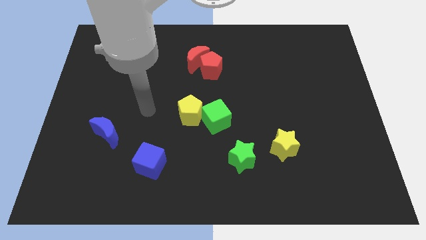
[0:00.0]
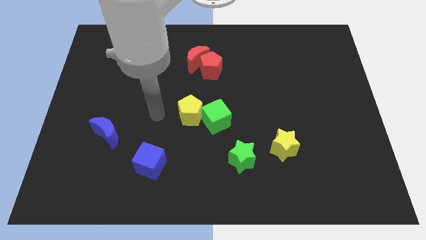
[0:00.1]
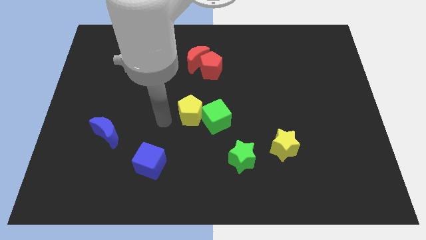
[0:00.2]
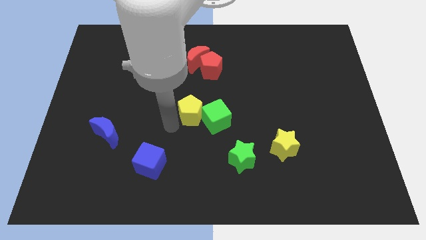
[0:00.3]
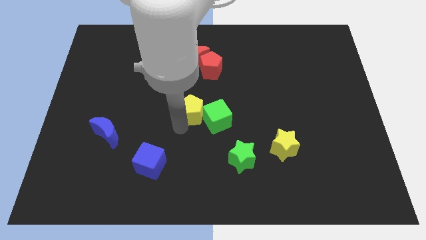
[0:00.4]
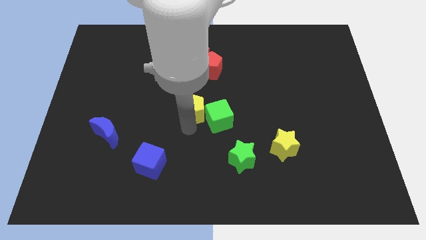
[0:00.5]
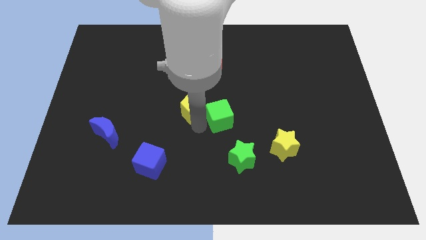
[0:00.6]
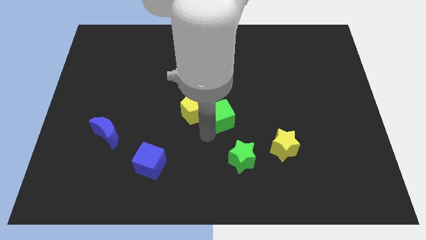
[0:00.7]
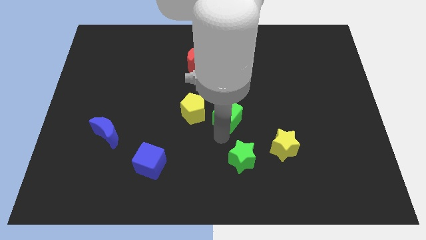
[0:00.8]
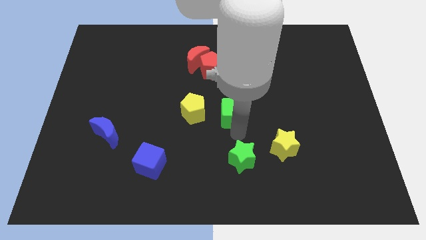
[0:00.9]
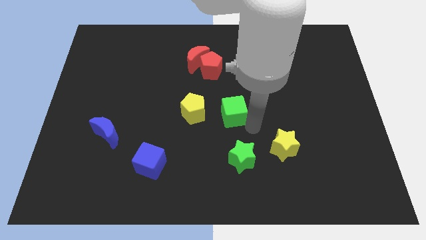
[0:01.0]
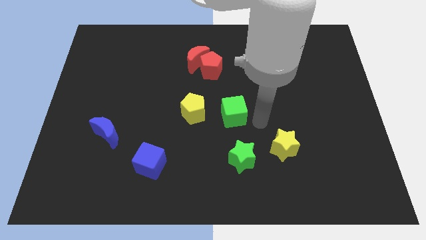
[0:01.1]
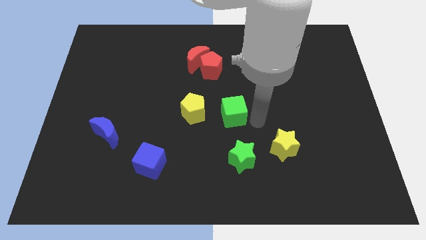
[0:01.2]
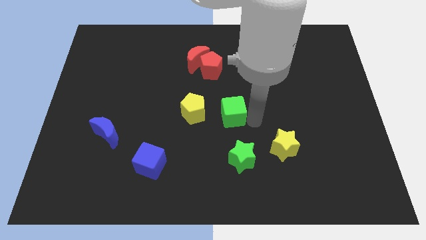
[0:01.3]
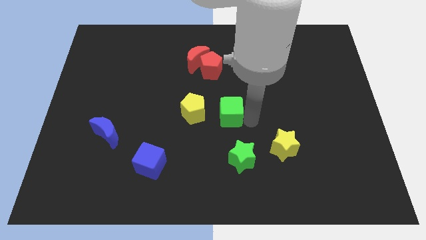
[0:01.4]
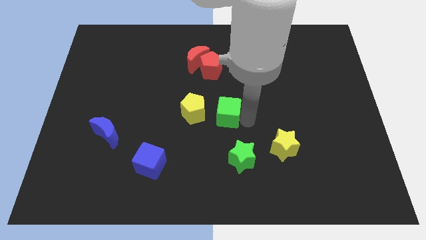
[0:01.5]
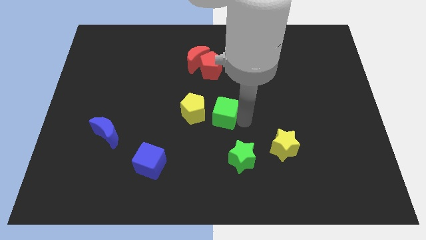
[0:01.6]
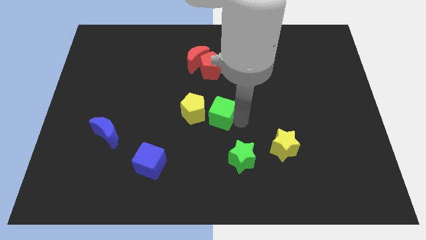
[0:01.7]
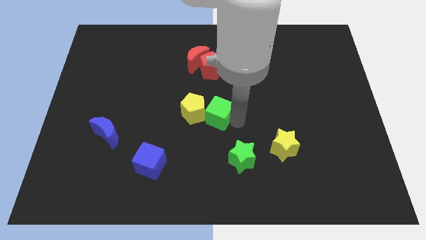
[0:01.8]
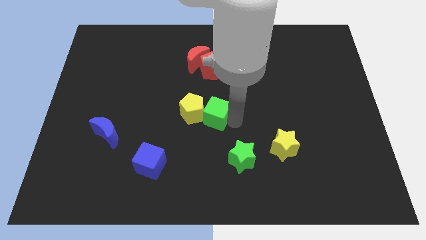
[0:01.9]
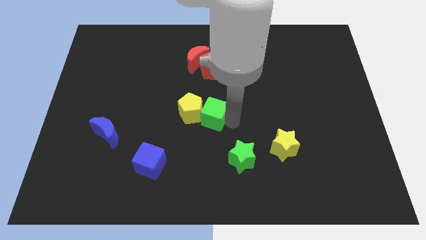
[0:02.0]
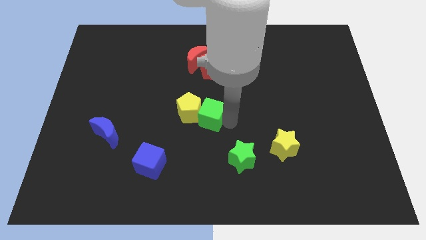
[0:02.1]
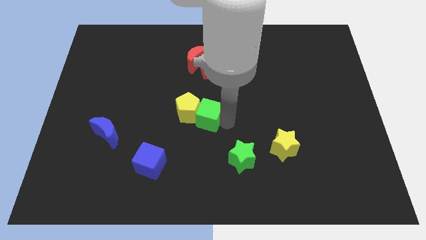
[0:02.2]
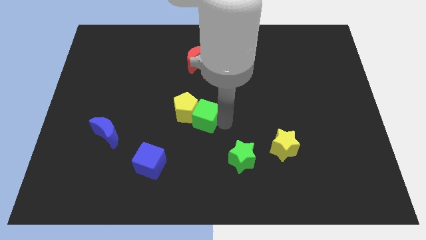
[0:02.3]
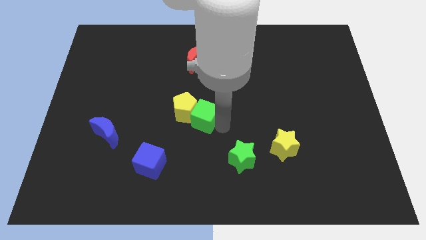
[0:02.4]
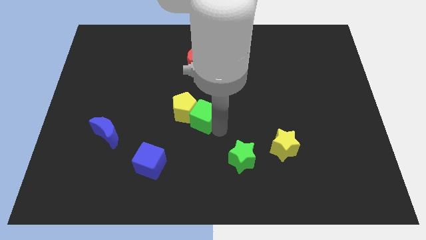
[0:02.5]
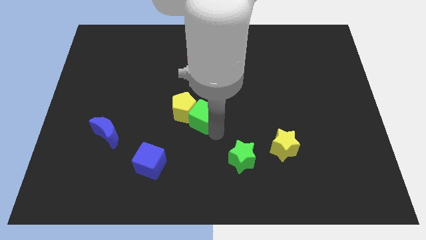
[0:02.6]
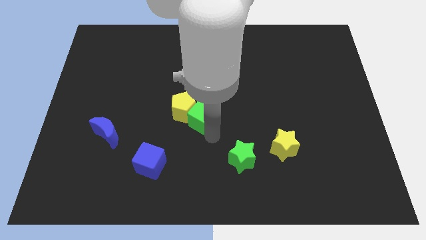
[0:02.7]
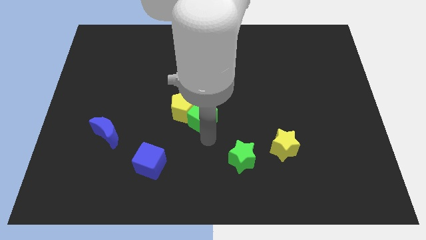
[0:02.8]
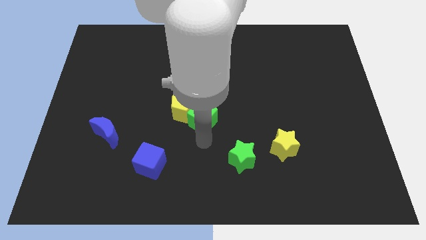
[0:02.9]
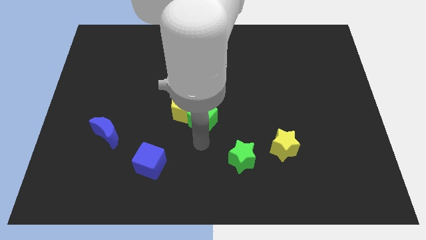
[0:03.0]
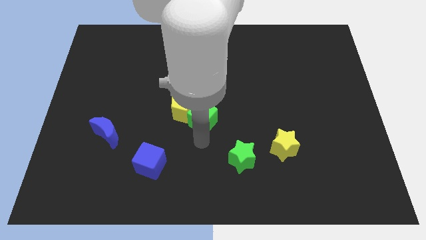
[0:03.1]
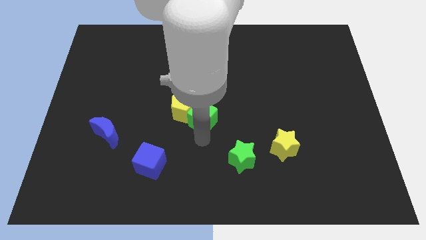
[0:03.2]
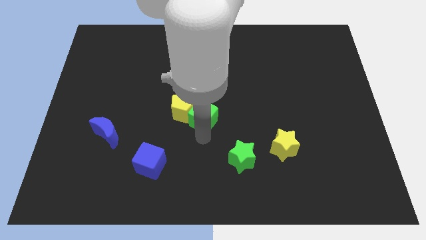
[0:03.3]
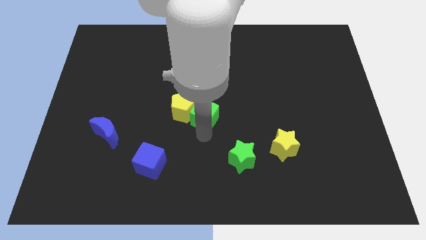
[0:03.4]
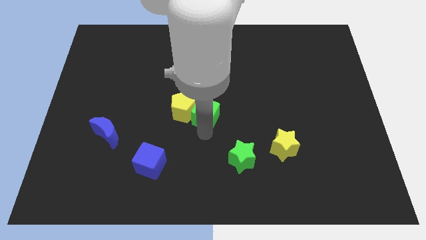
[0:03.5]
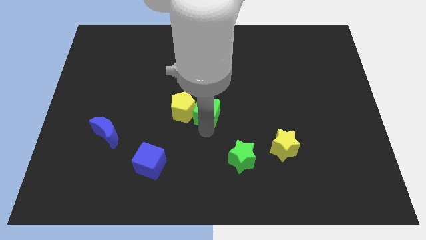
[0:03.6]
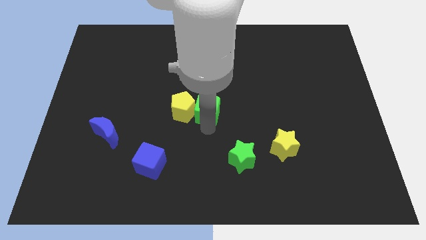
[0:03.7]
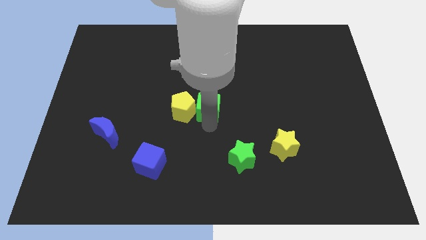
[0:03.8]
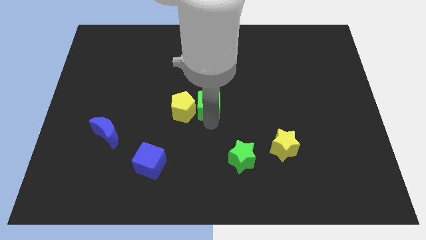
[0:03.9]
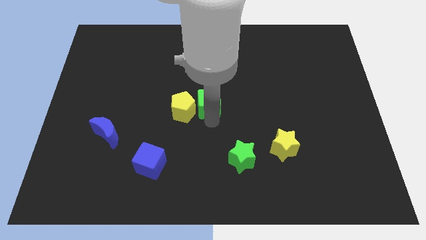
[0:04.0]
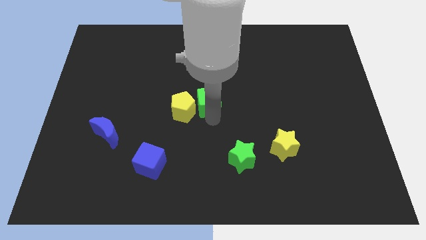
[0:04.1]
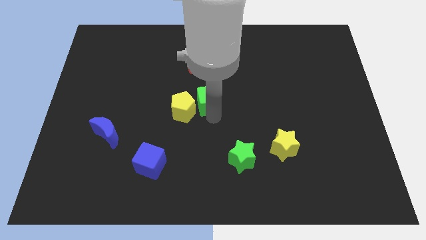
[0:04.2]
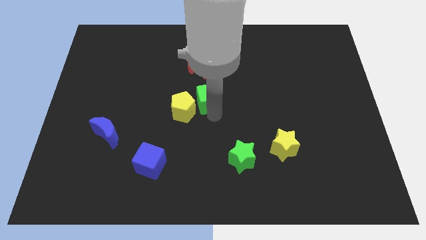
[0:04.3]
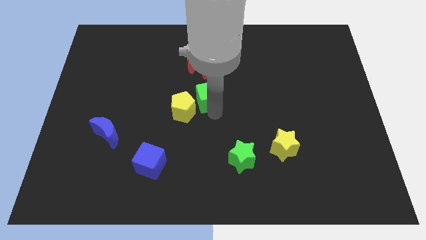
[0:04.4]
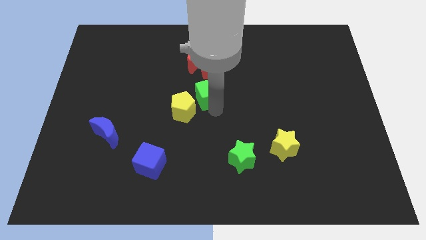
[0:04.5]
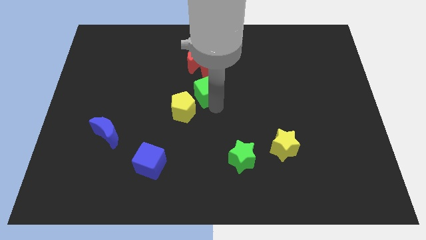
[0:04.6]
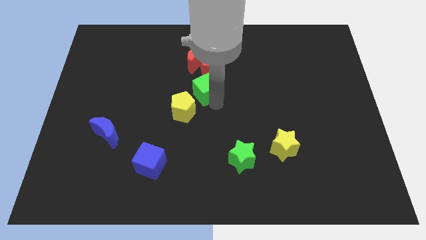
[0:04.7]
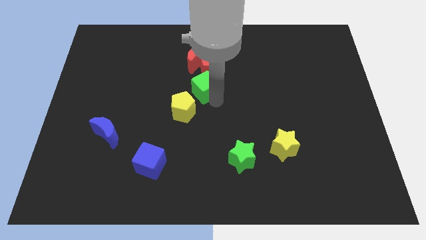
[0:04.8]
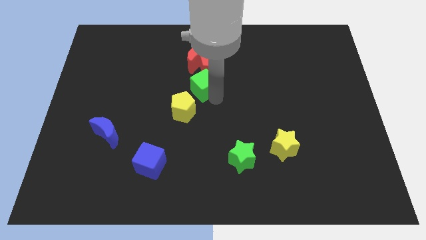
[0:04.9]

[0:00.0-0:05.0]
move the green cube to the top of the yellow pentagon

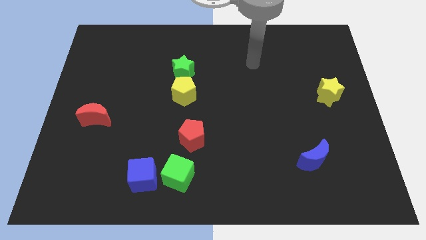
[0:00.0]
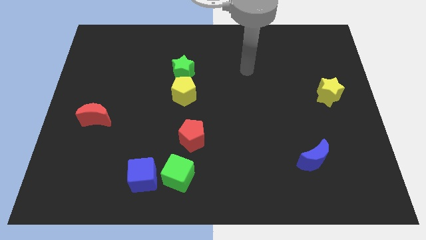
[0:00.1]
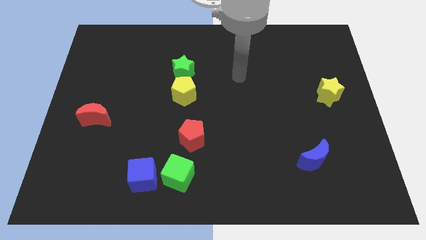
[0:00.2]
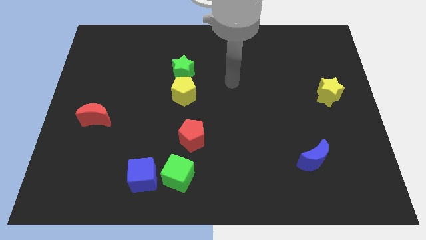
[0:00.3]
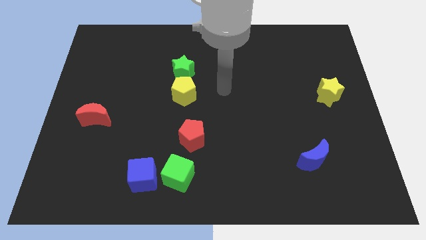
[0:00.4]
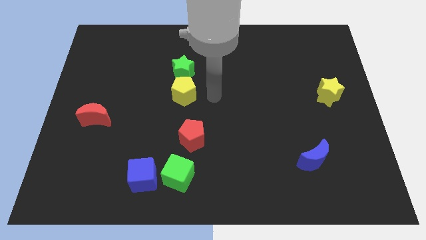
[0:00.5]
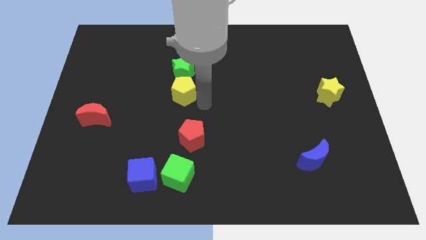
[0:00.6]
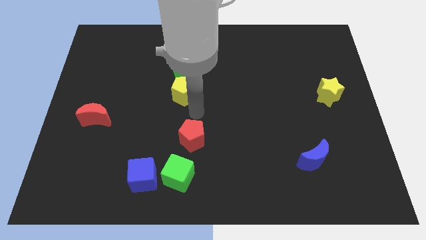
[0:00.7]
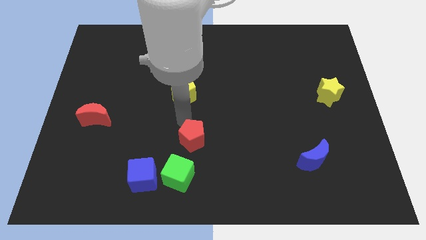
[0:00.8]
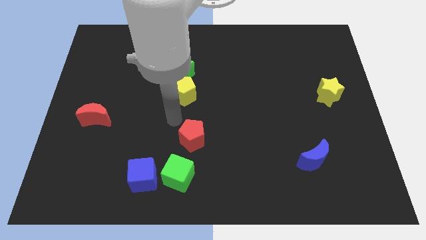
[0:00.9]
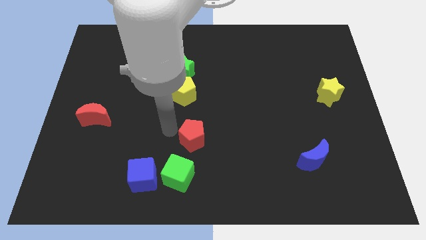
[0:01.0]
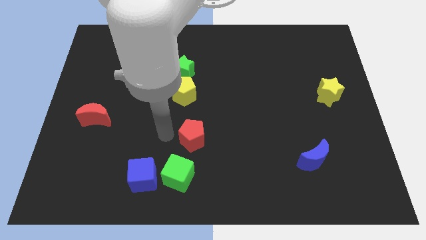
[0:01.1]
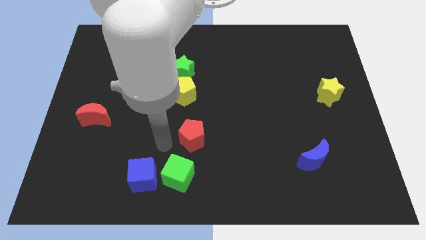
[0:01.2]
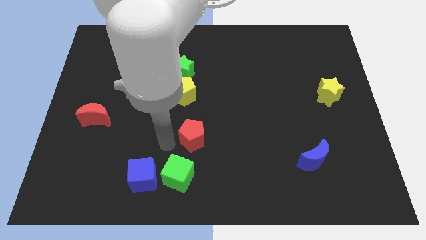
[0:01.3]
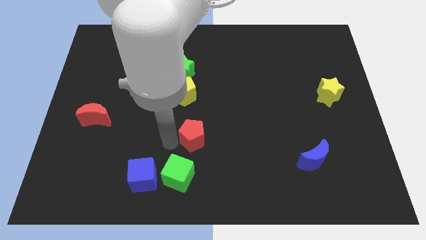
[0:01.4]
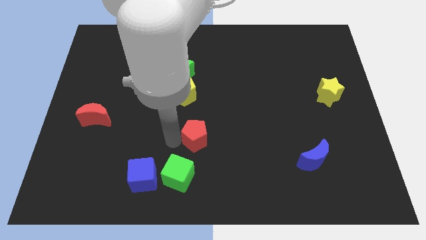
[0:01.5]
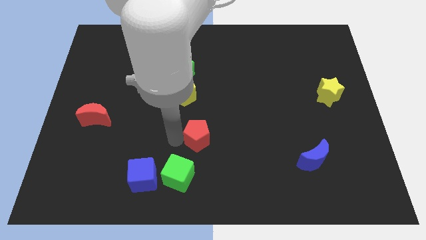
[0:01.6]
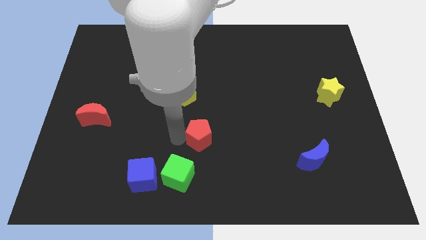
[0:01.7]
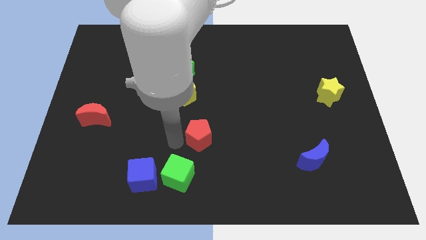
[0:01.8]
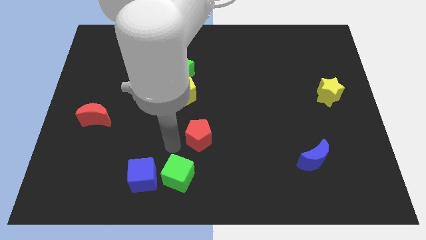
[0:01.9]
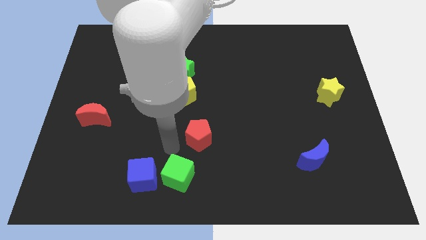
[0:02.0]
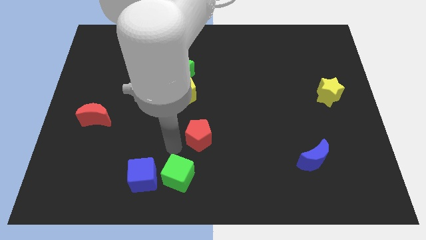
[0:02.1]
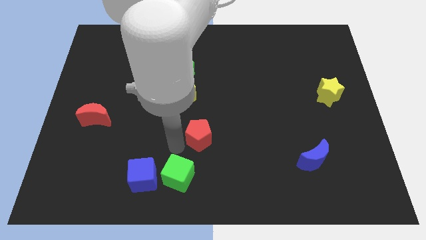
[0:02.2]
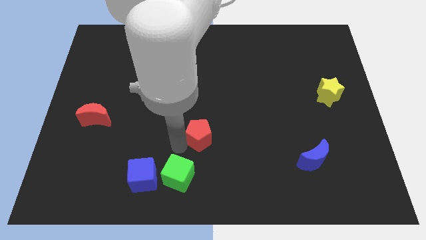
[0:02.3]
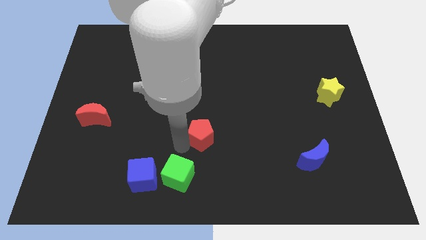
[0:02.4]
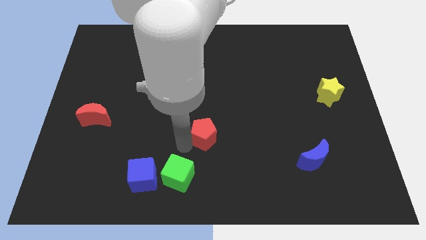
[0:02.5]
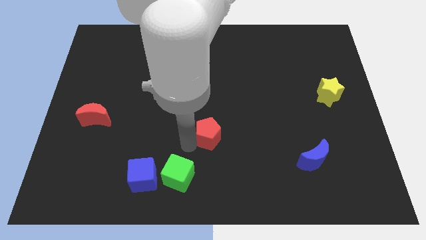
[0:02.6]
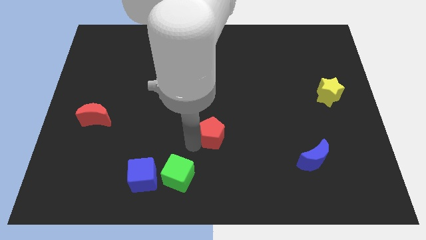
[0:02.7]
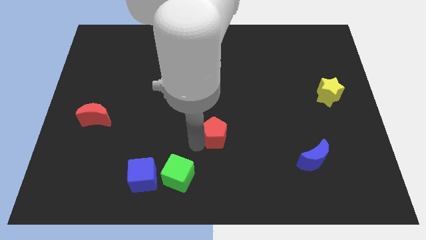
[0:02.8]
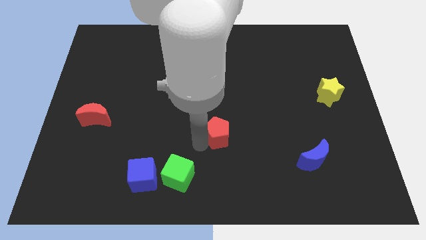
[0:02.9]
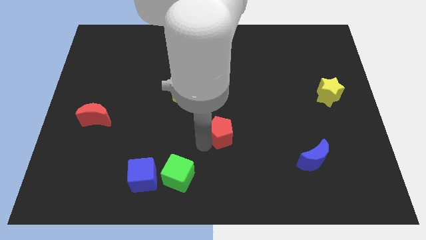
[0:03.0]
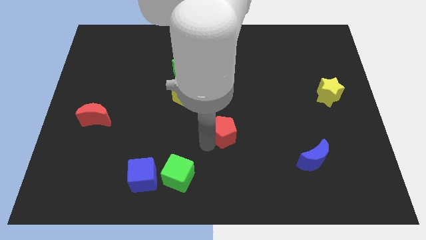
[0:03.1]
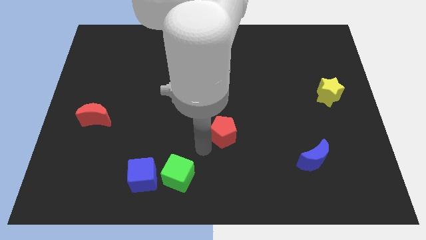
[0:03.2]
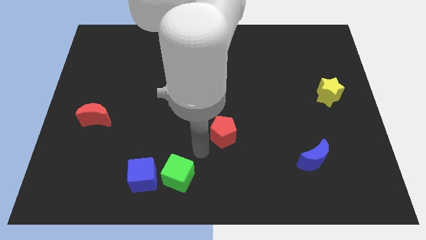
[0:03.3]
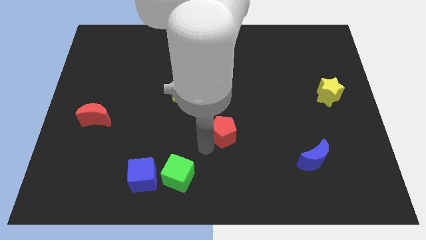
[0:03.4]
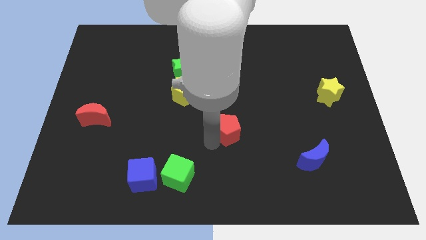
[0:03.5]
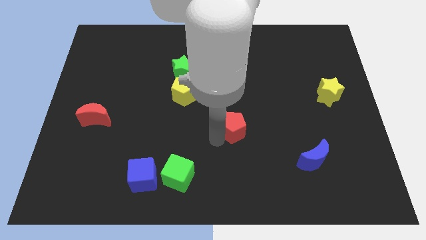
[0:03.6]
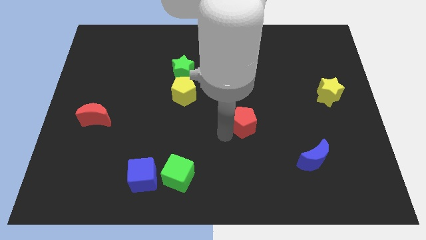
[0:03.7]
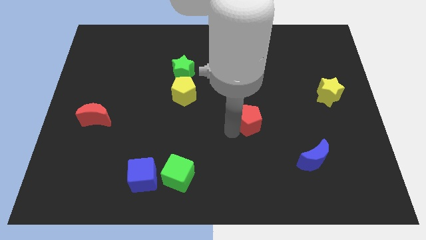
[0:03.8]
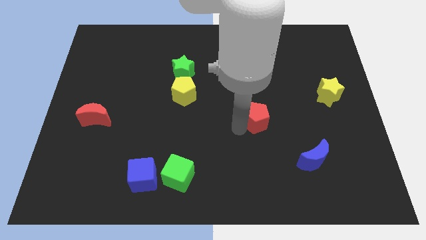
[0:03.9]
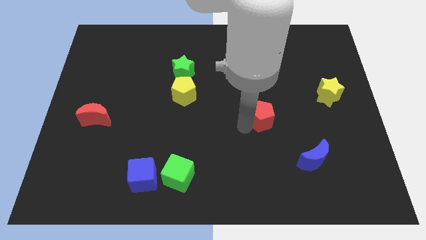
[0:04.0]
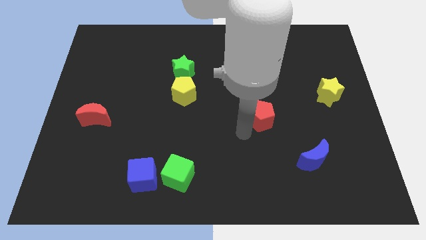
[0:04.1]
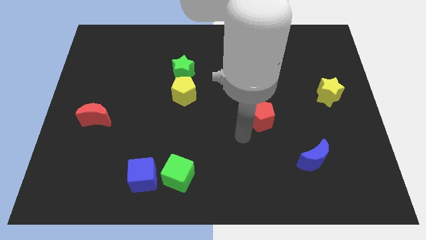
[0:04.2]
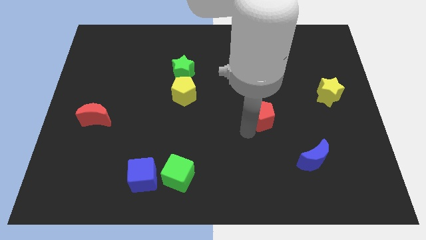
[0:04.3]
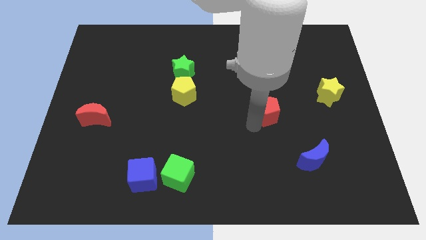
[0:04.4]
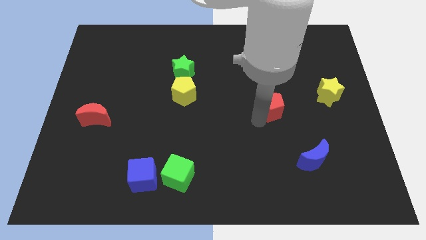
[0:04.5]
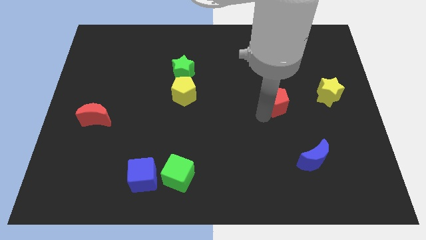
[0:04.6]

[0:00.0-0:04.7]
put the red pentagon to the left of the yellow star
